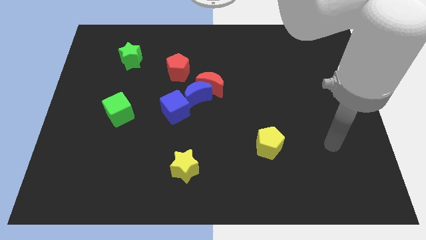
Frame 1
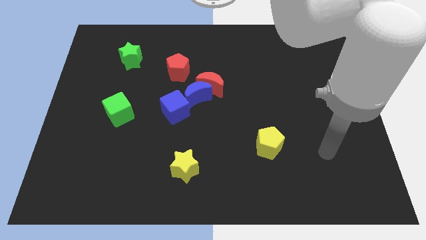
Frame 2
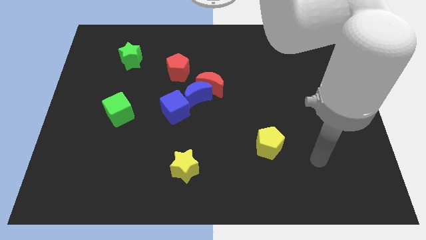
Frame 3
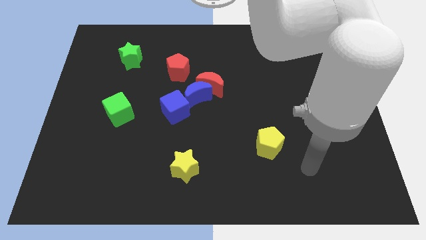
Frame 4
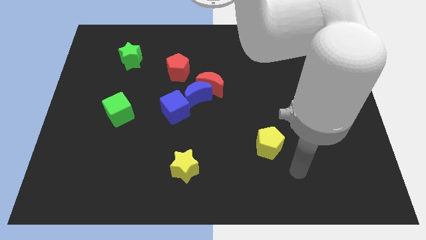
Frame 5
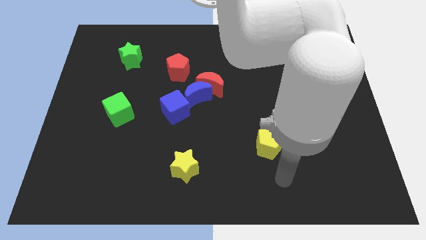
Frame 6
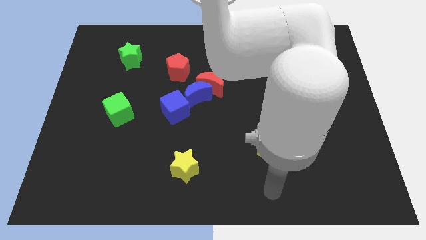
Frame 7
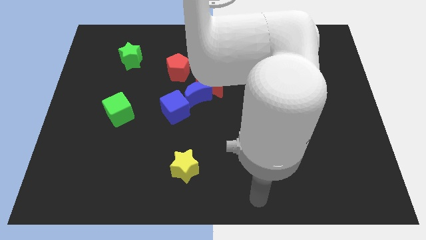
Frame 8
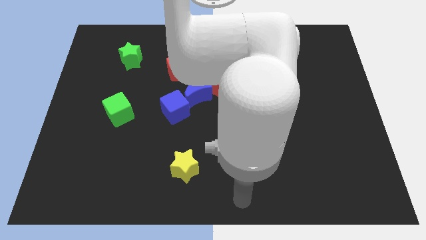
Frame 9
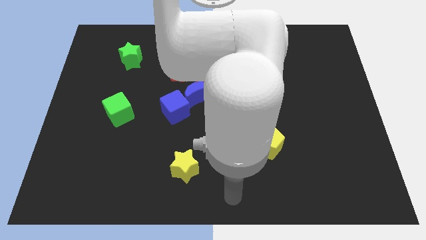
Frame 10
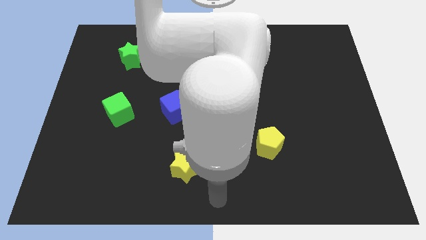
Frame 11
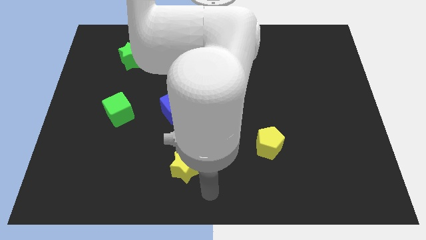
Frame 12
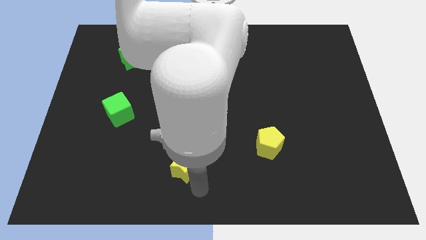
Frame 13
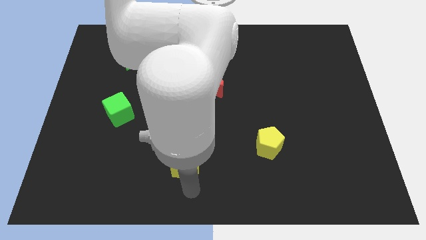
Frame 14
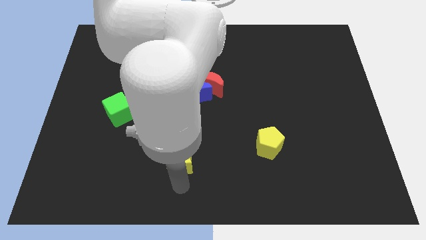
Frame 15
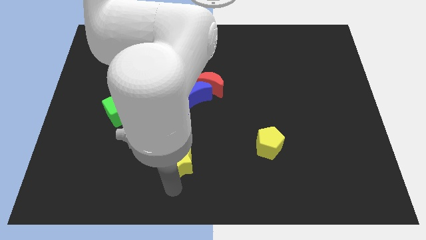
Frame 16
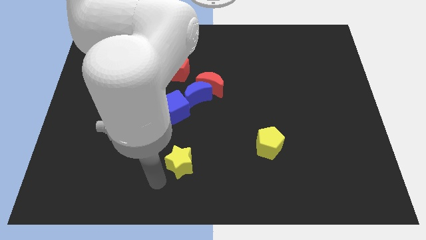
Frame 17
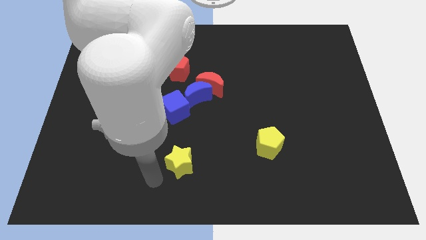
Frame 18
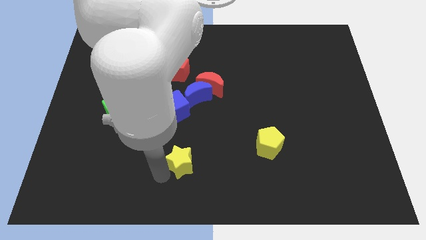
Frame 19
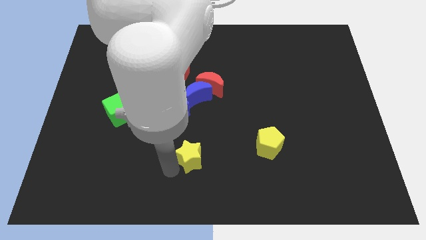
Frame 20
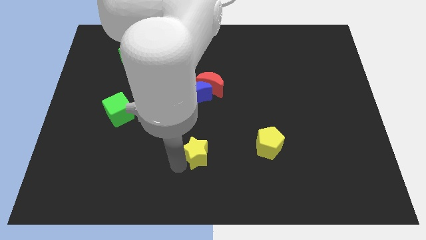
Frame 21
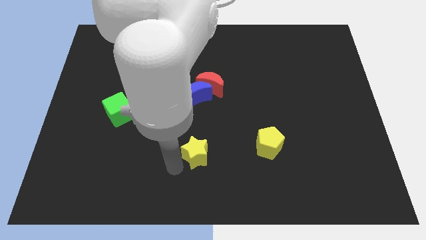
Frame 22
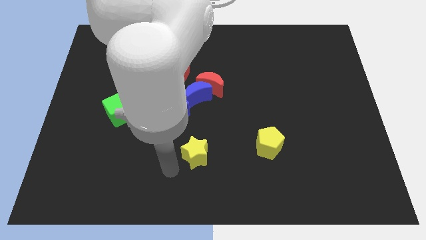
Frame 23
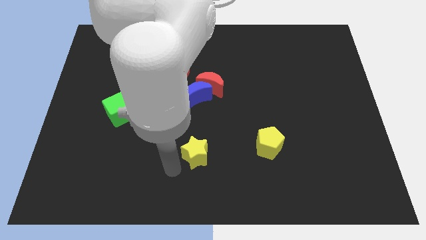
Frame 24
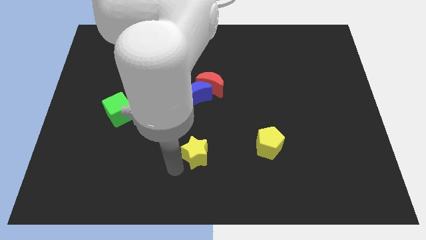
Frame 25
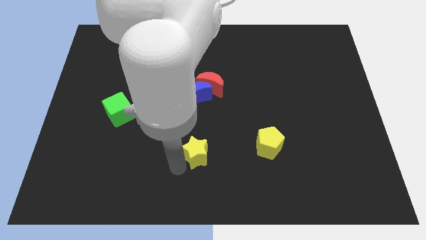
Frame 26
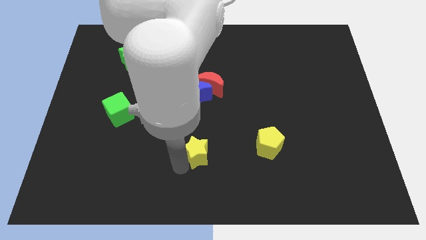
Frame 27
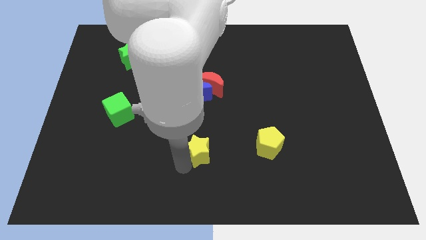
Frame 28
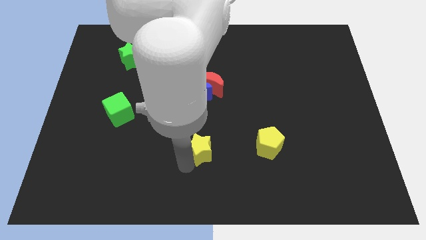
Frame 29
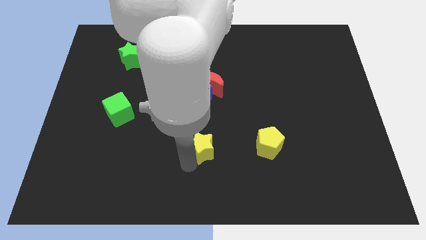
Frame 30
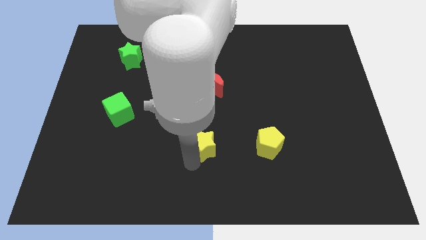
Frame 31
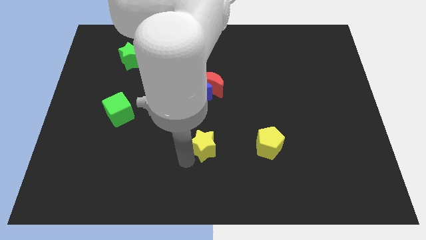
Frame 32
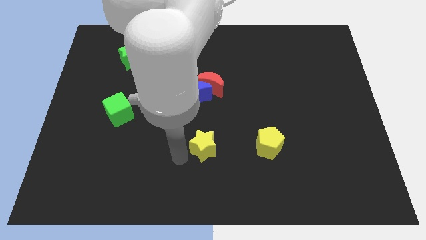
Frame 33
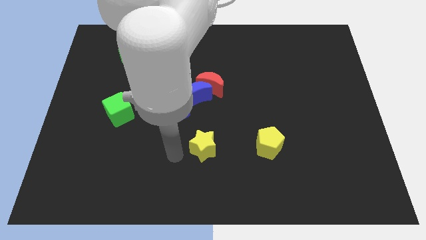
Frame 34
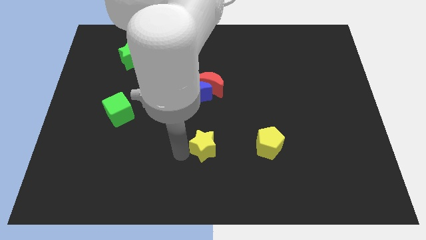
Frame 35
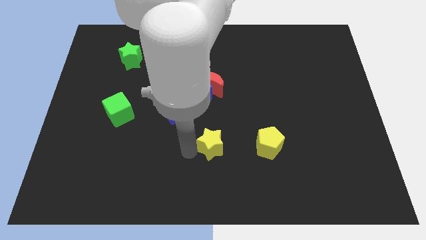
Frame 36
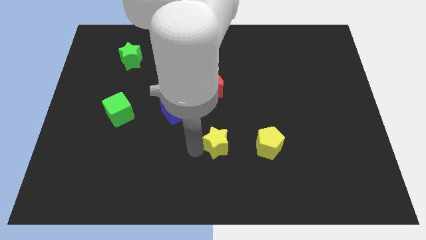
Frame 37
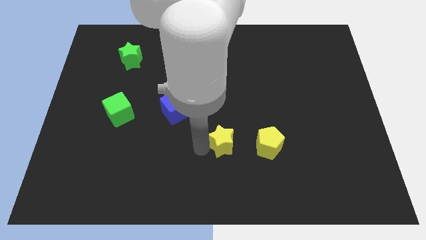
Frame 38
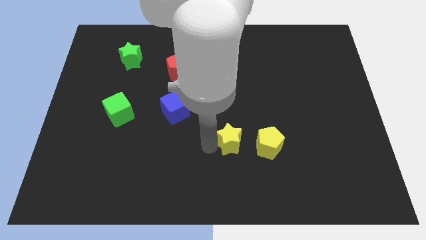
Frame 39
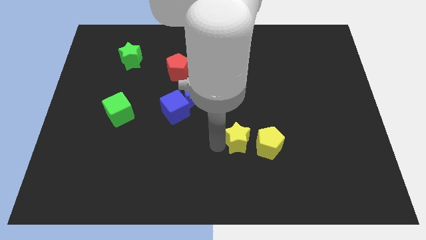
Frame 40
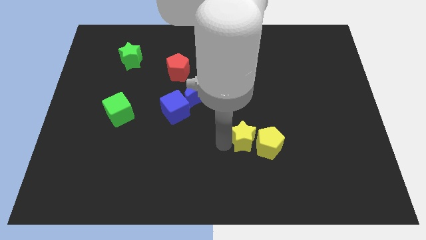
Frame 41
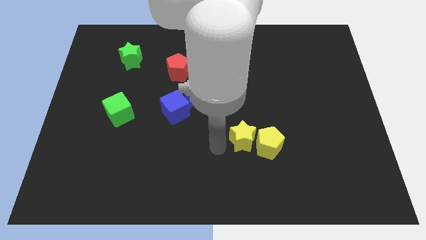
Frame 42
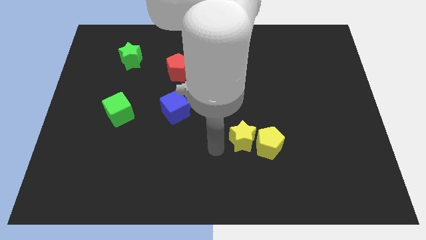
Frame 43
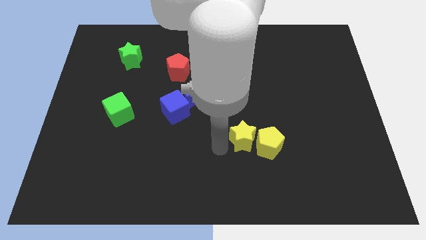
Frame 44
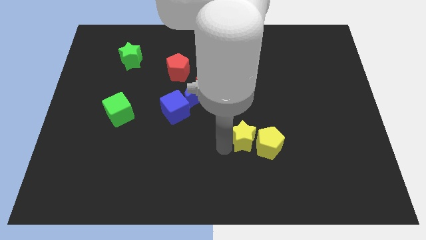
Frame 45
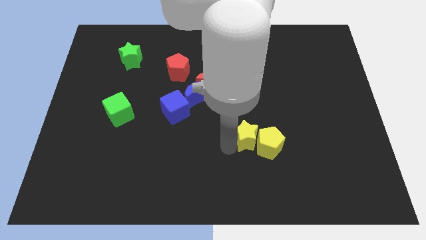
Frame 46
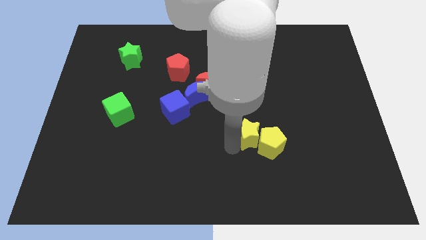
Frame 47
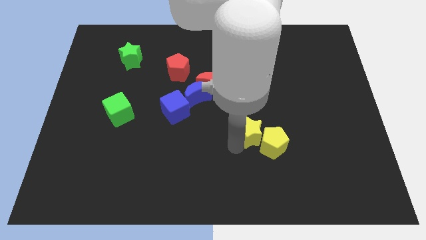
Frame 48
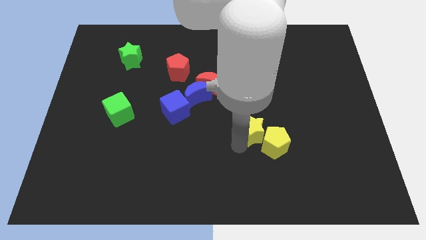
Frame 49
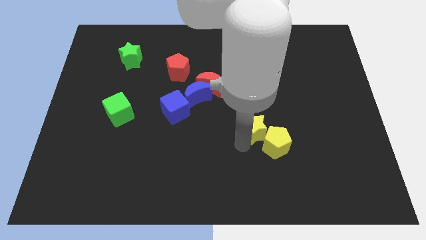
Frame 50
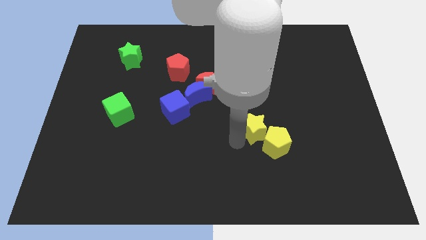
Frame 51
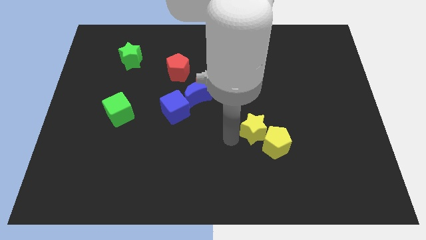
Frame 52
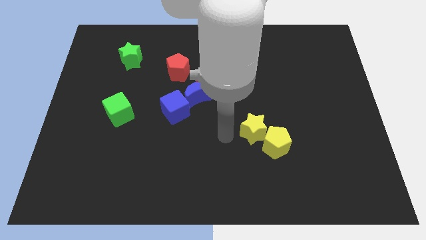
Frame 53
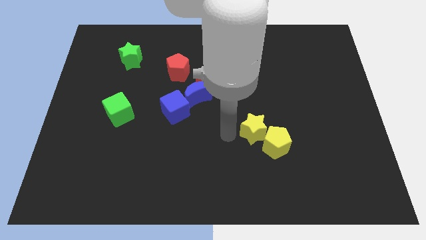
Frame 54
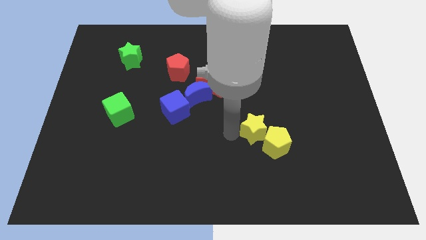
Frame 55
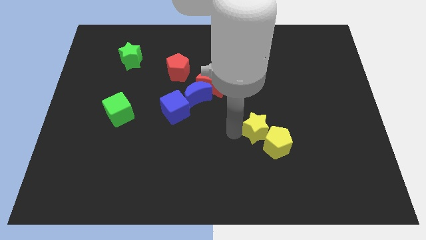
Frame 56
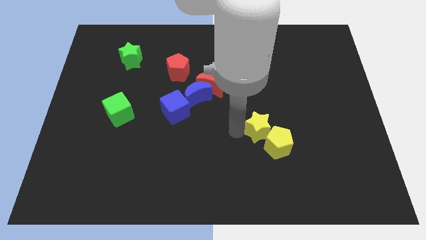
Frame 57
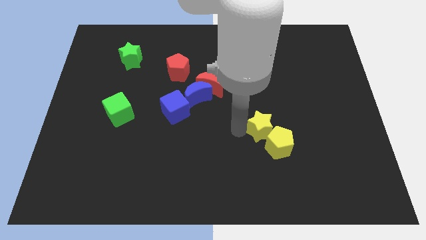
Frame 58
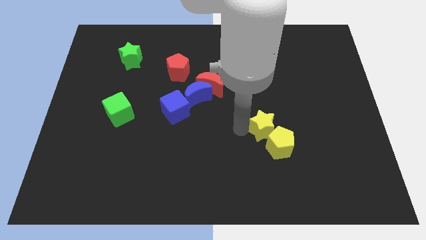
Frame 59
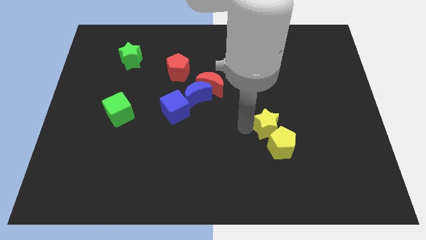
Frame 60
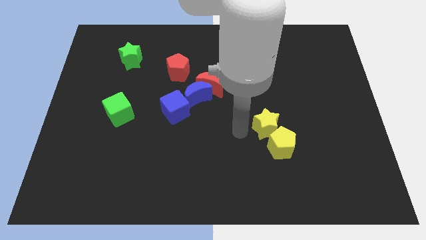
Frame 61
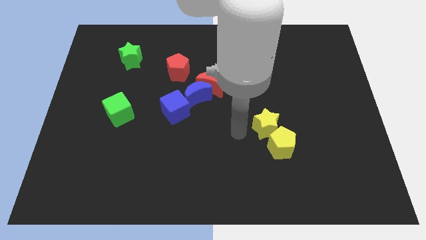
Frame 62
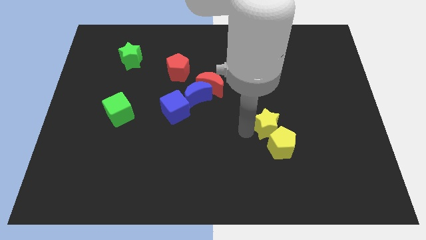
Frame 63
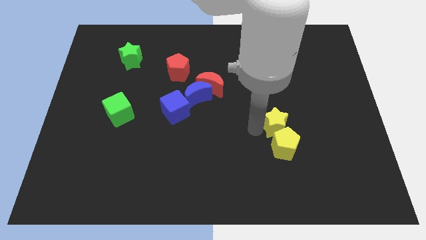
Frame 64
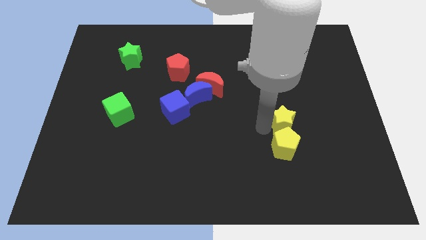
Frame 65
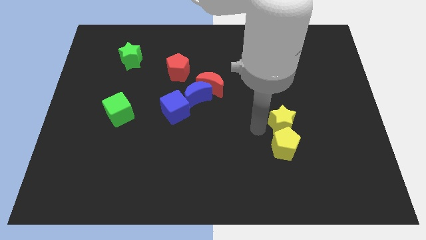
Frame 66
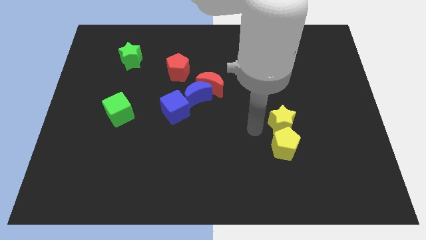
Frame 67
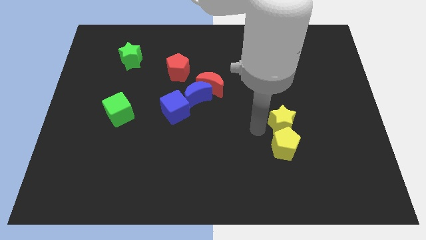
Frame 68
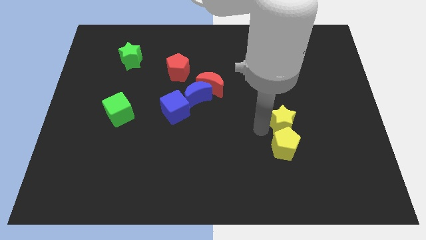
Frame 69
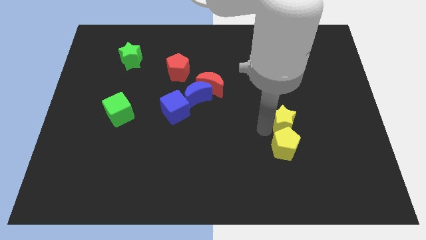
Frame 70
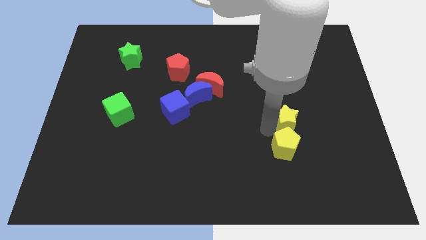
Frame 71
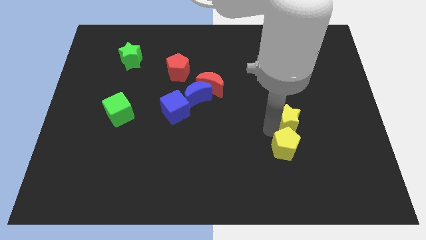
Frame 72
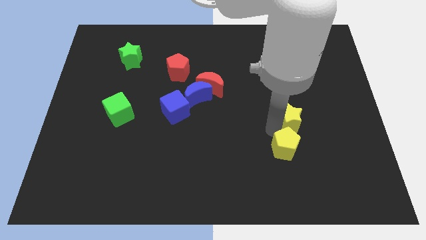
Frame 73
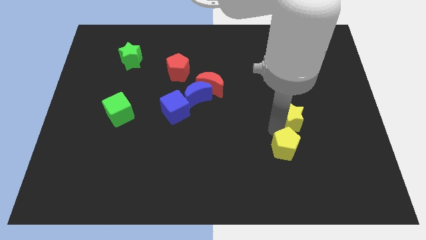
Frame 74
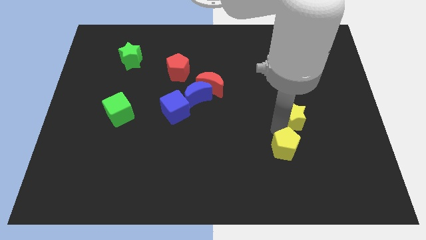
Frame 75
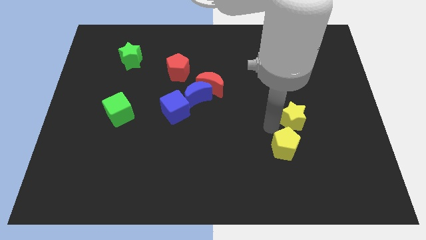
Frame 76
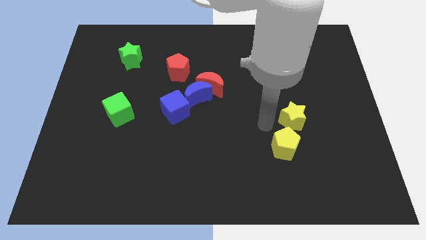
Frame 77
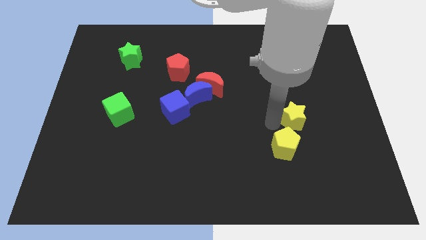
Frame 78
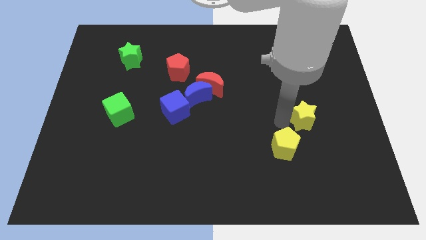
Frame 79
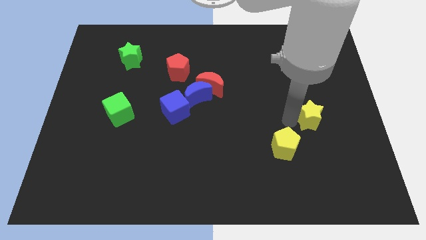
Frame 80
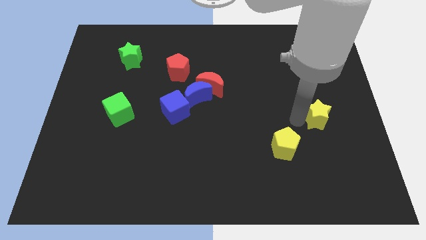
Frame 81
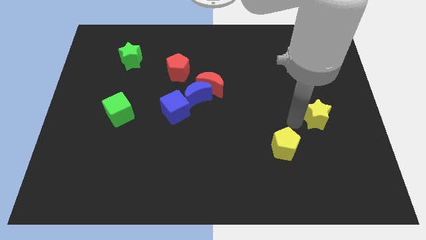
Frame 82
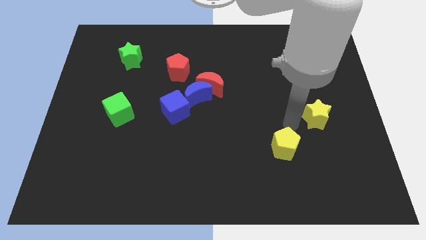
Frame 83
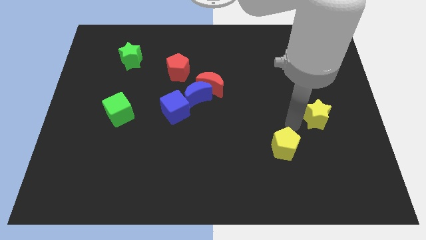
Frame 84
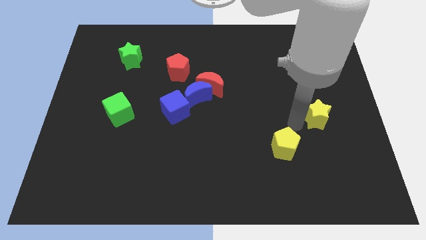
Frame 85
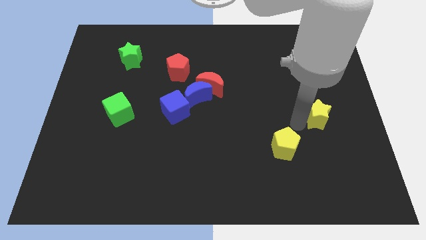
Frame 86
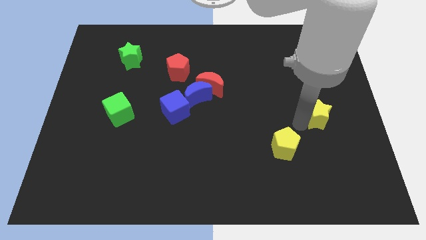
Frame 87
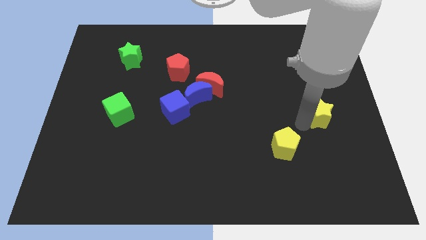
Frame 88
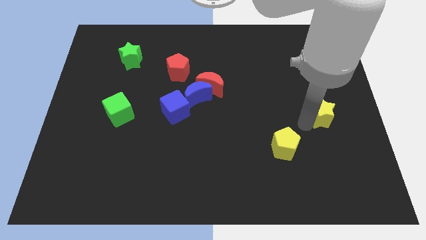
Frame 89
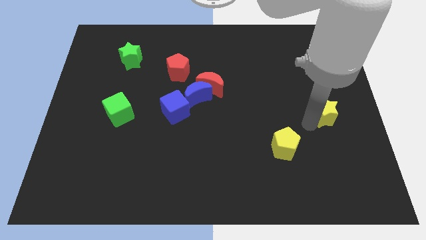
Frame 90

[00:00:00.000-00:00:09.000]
move the yellow star to the right side of the board
